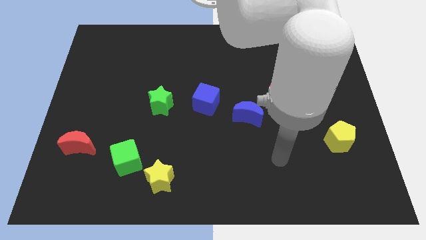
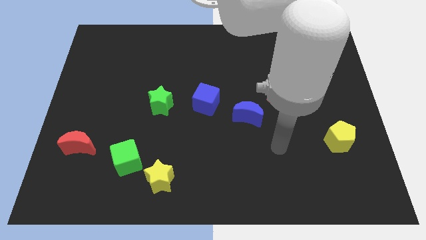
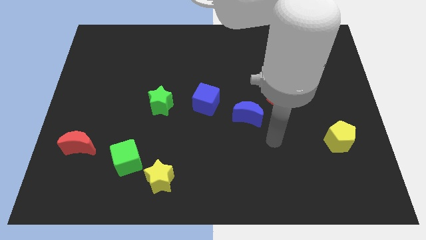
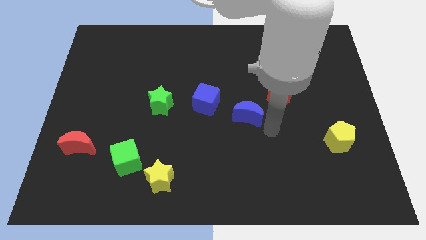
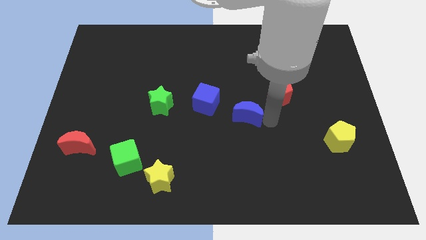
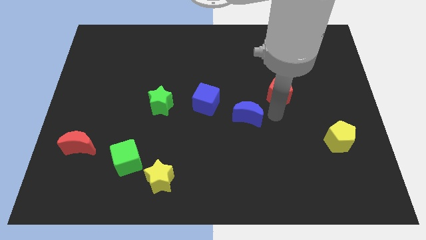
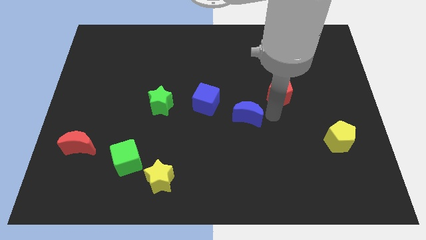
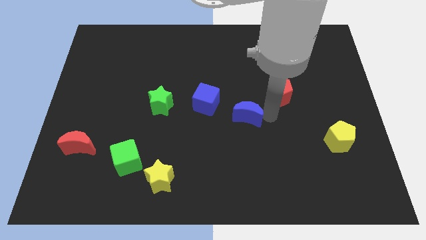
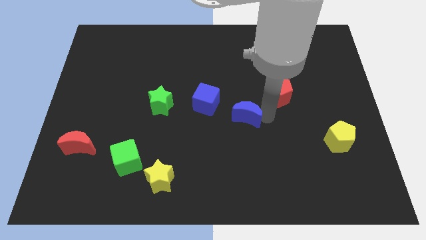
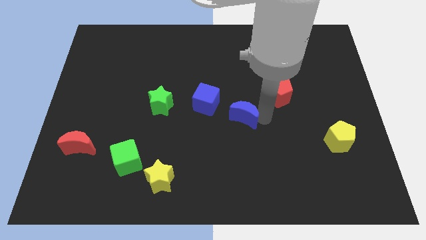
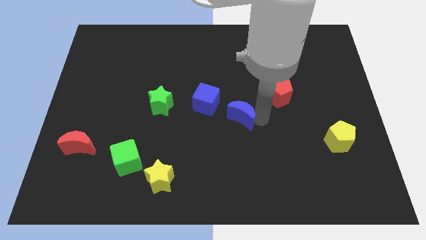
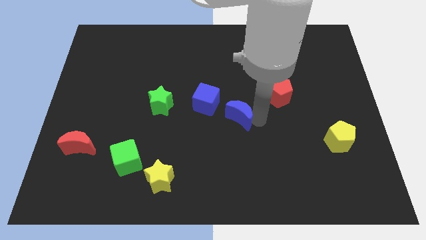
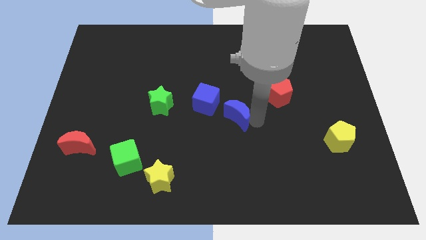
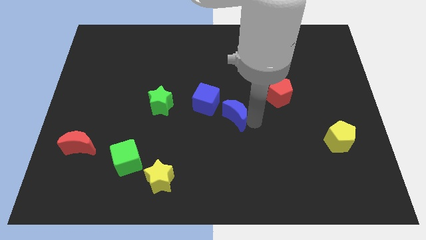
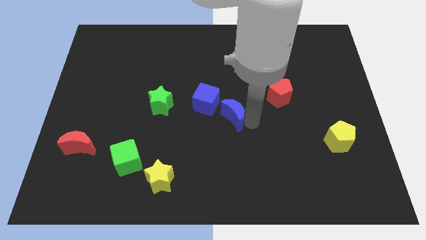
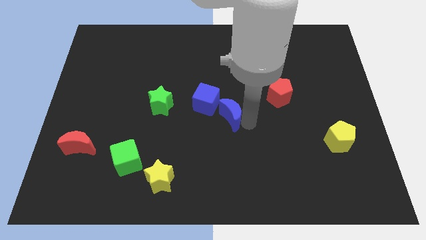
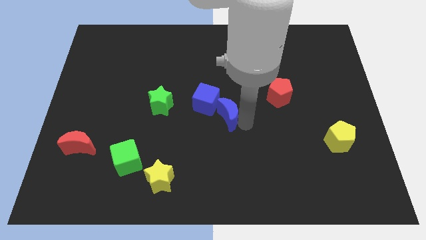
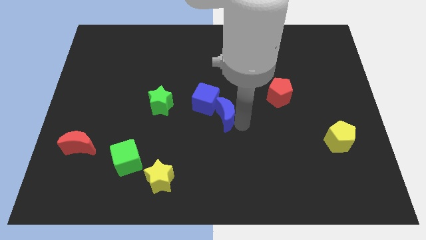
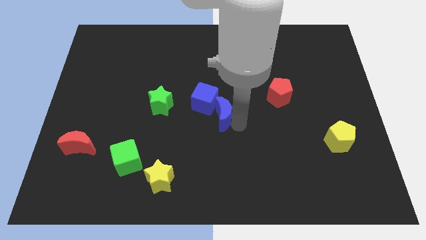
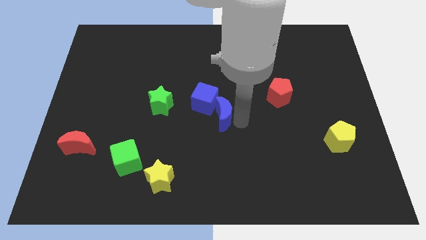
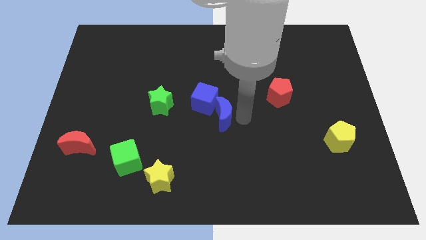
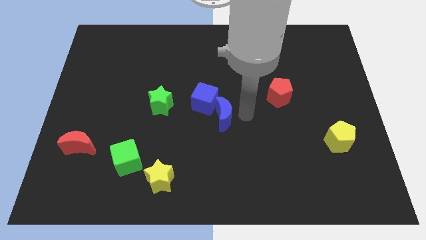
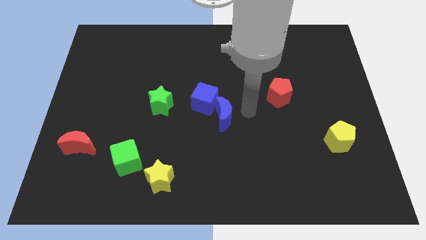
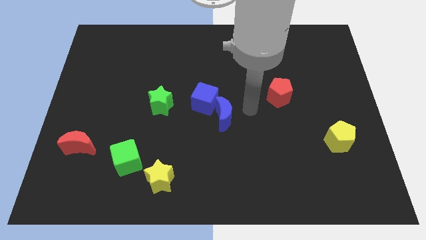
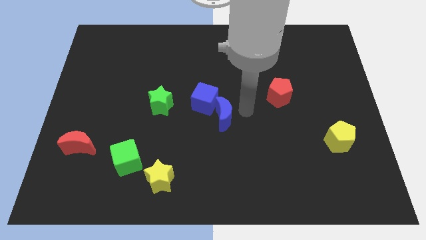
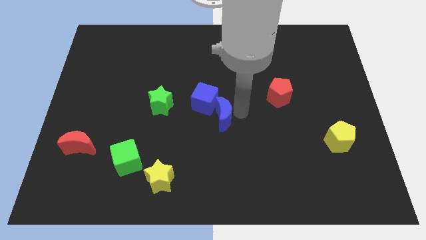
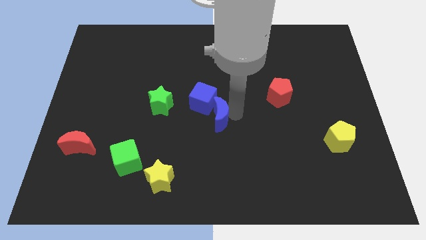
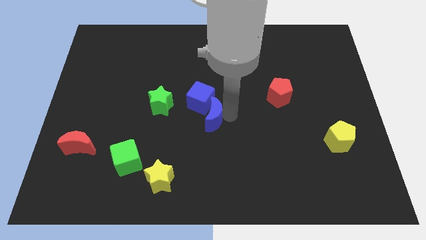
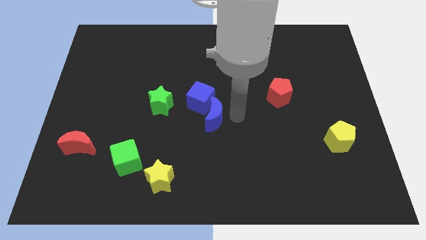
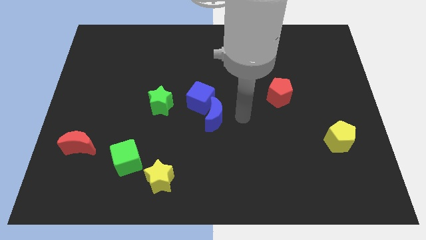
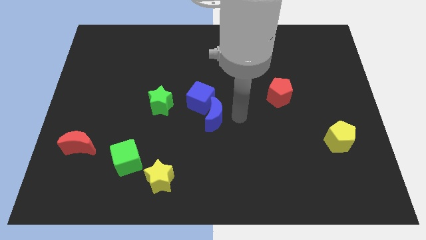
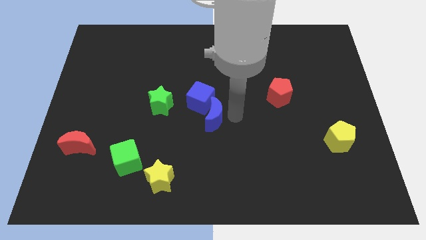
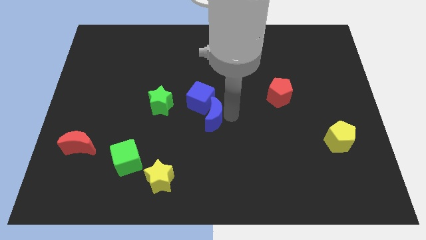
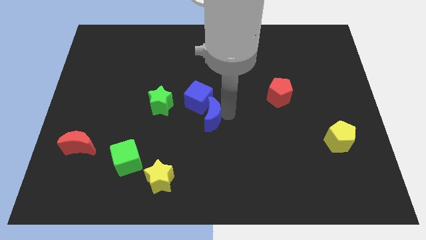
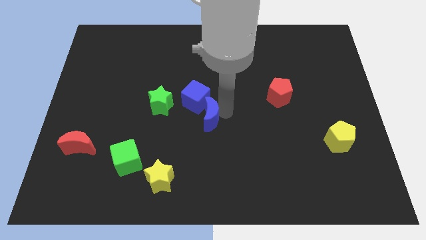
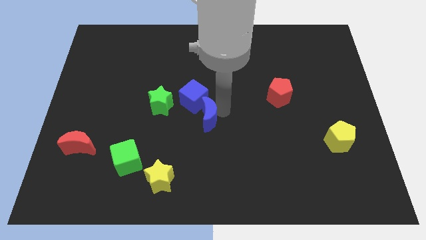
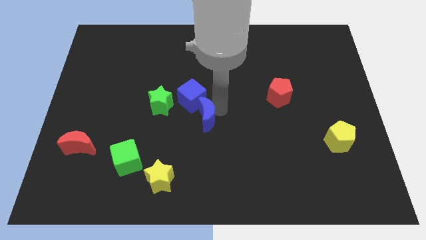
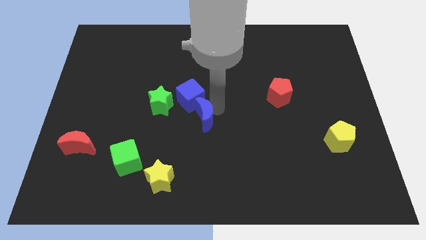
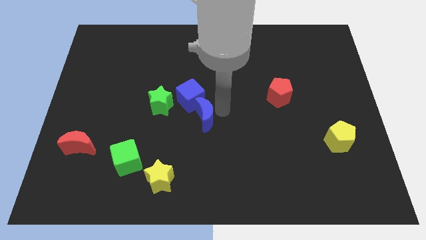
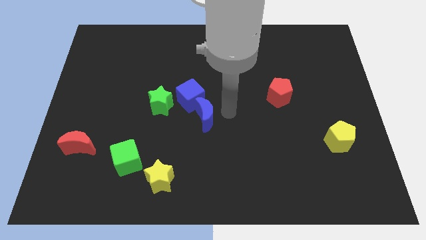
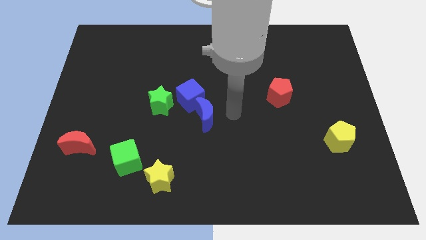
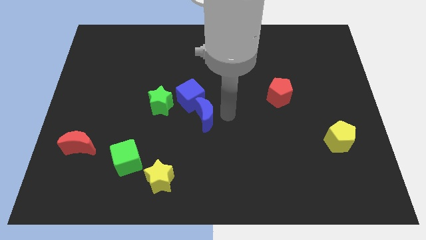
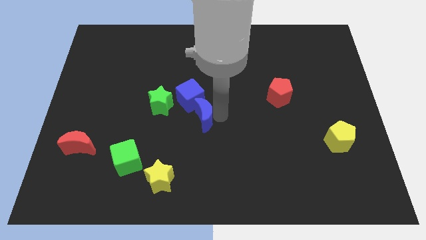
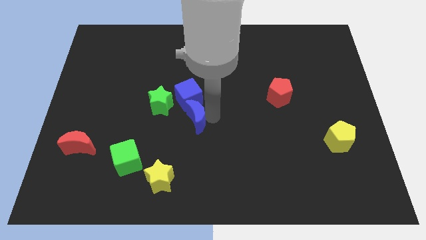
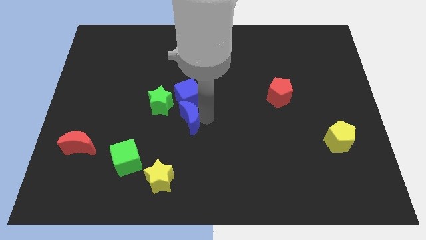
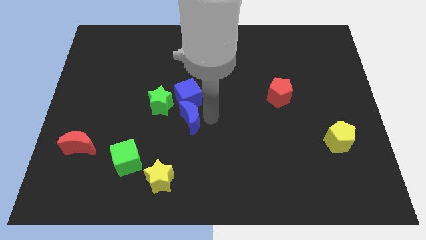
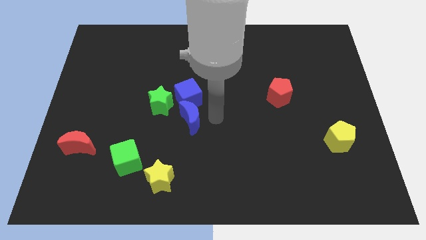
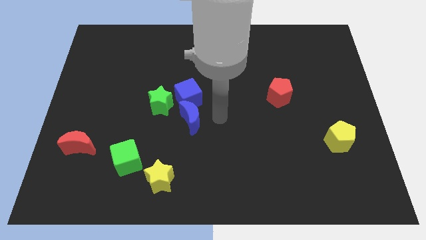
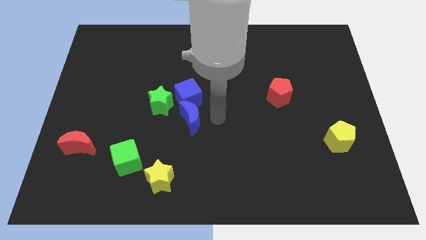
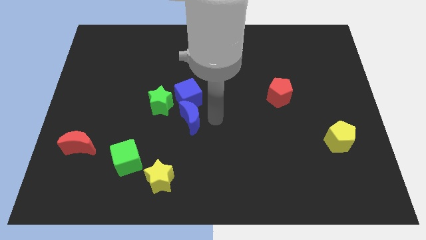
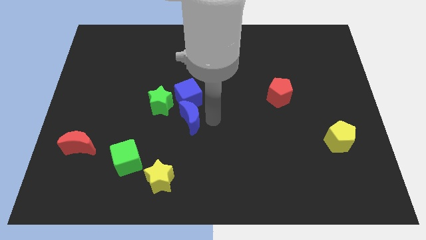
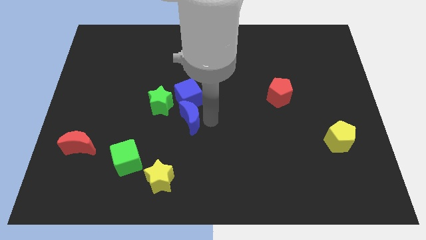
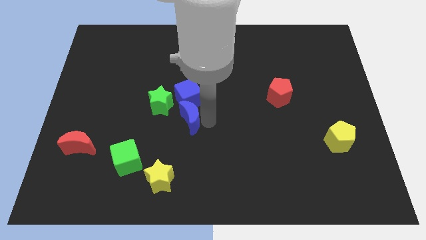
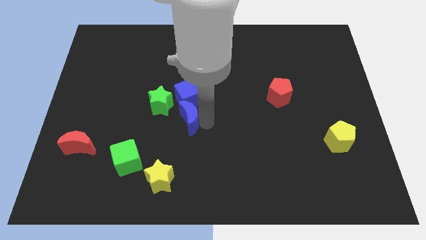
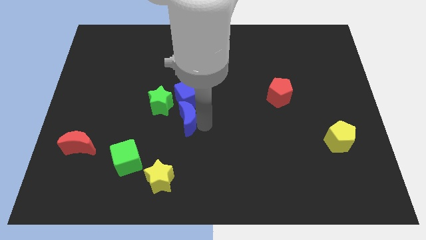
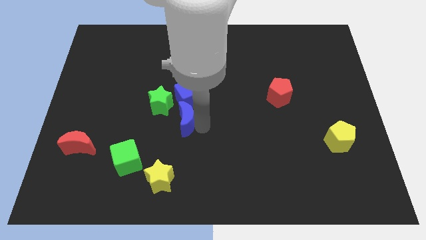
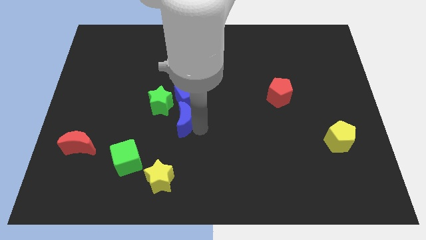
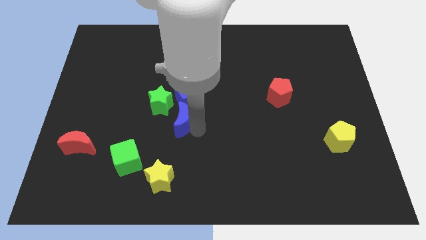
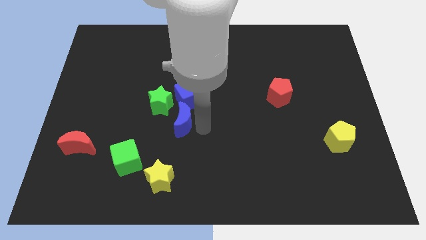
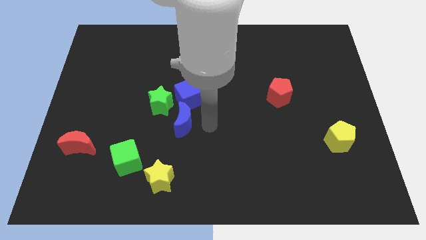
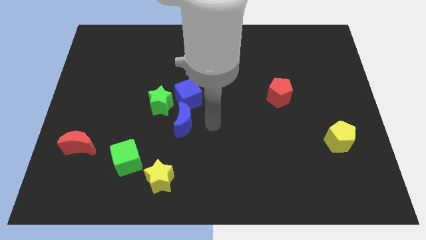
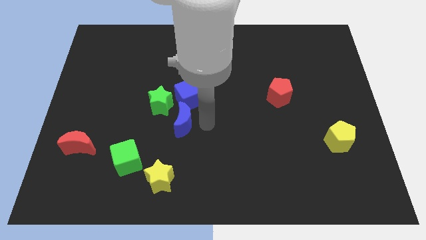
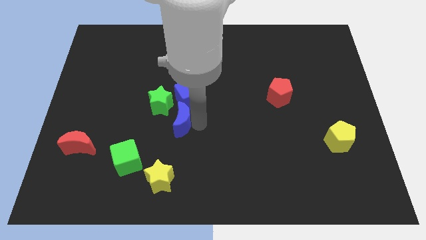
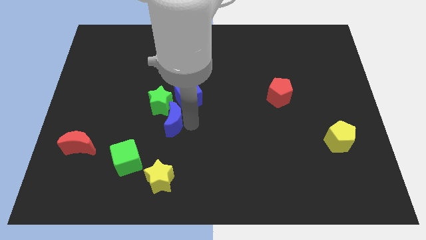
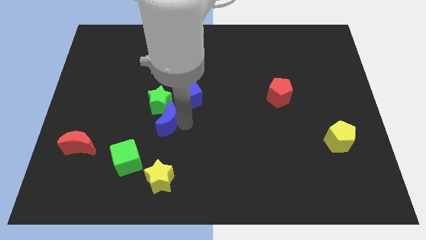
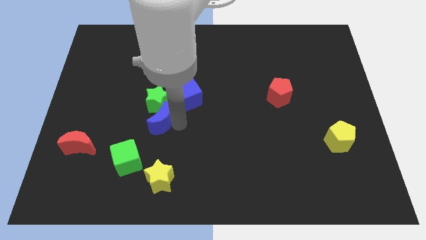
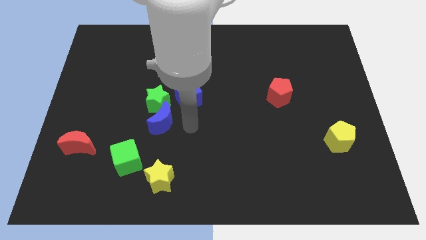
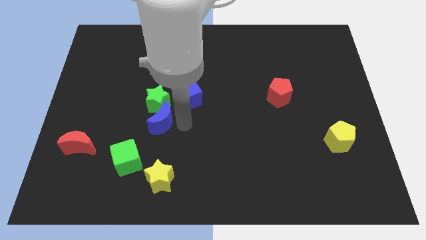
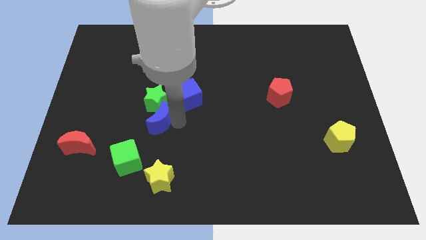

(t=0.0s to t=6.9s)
move the blue moon left

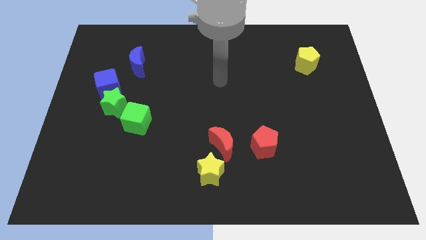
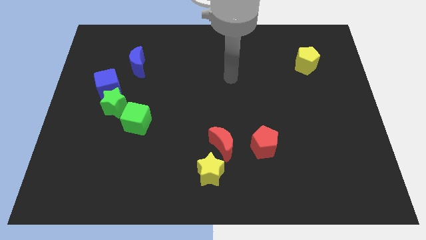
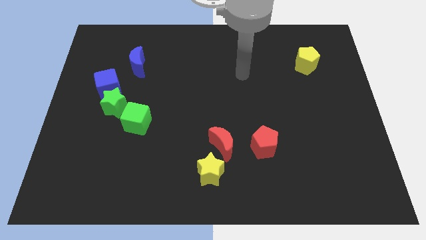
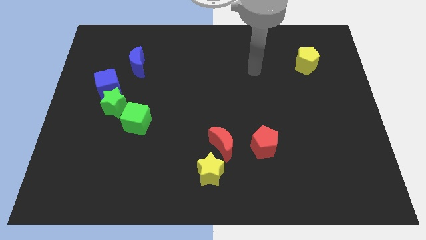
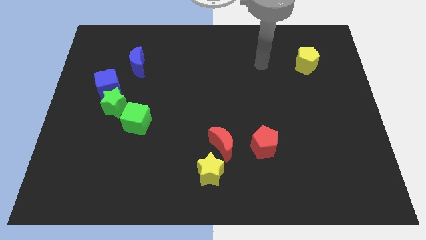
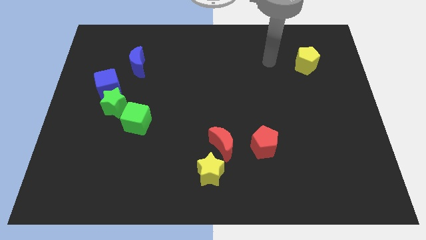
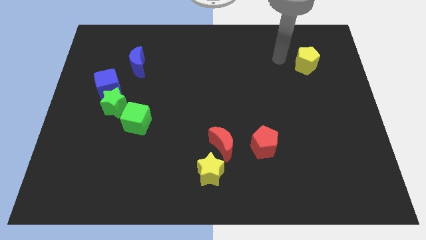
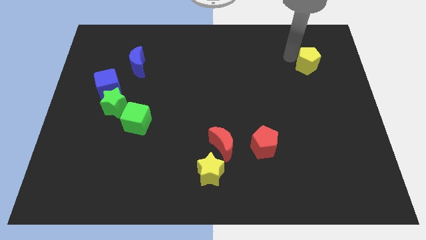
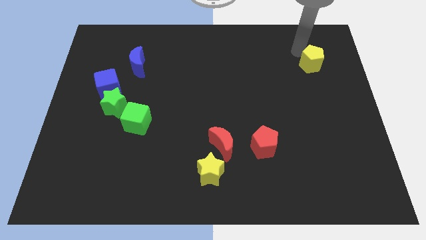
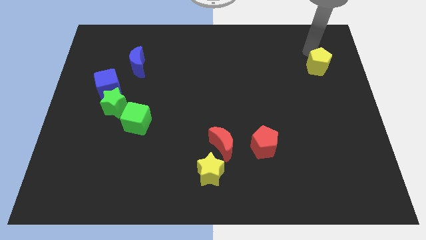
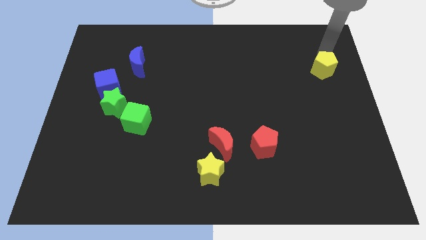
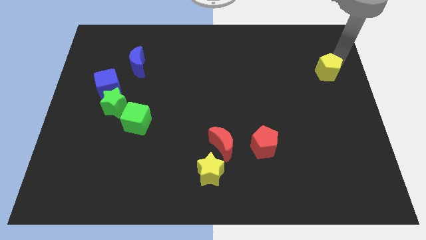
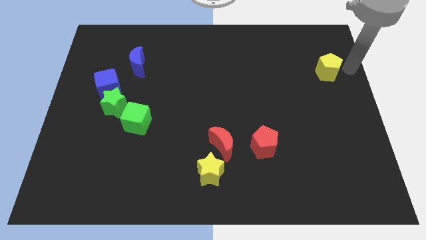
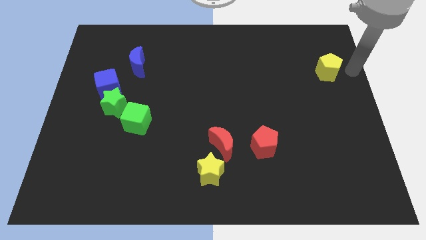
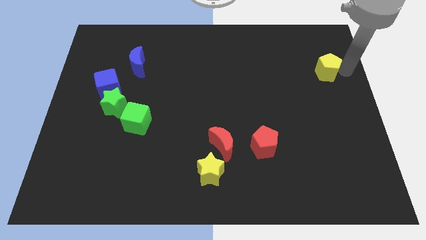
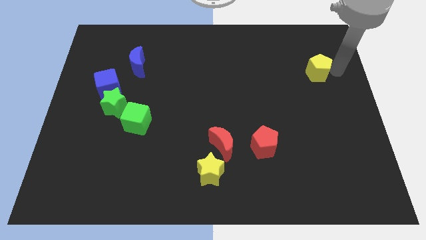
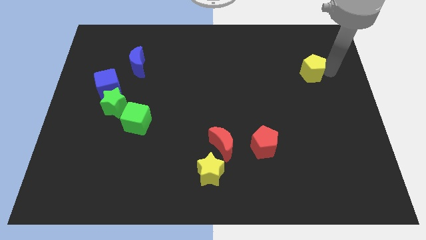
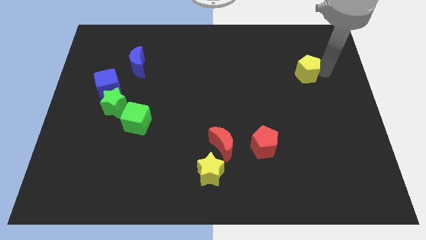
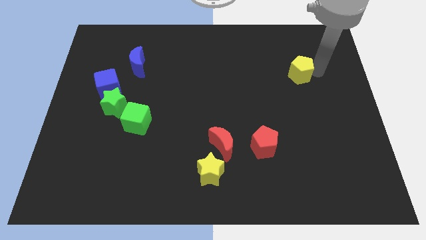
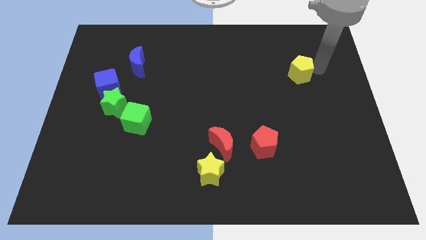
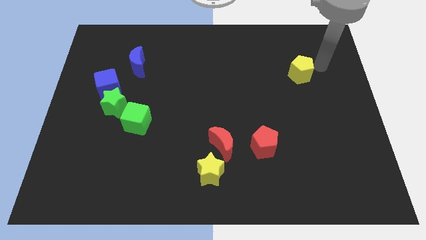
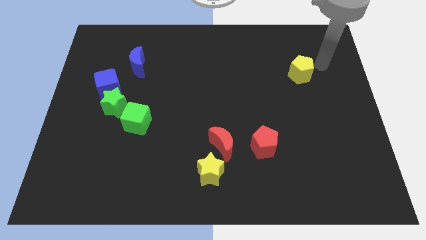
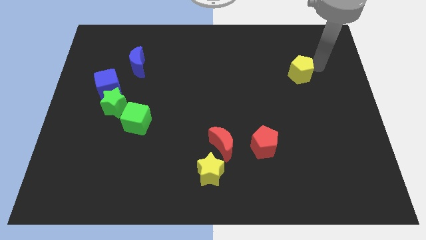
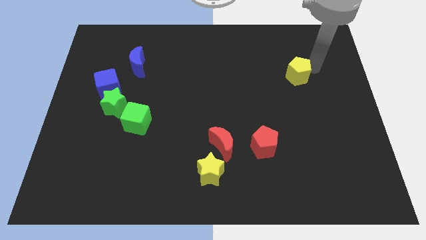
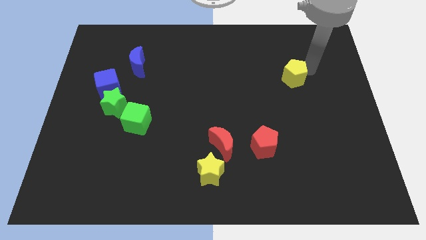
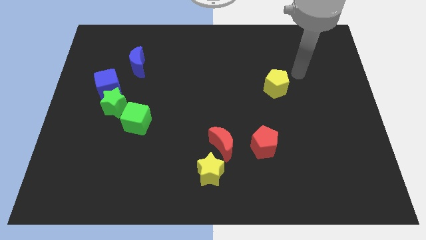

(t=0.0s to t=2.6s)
slide the yellow pentagon diagonally downwards and to the left a bit
